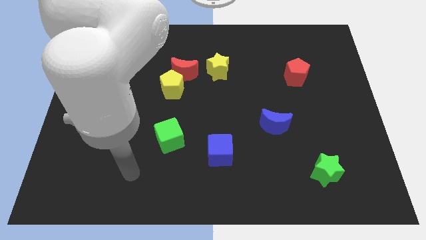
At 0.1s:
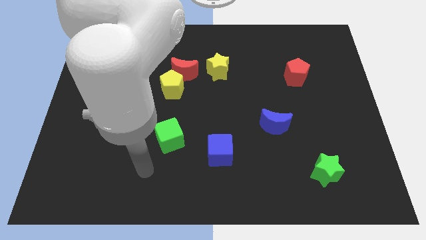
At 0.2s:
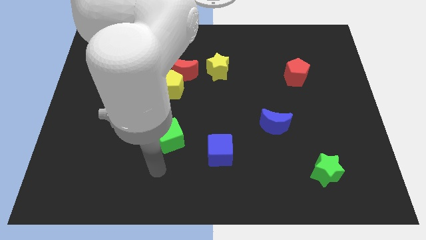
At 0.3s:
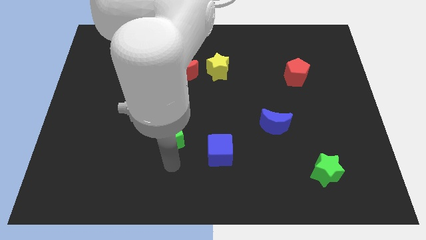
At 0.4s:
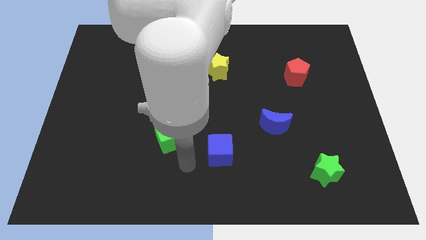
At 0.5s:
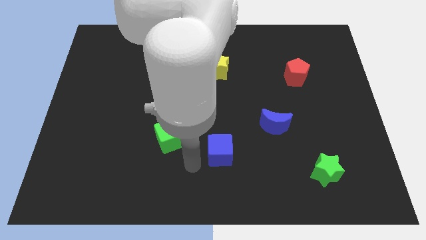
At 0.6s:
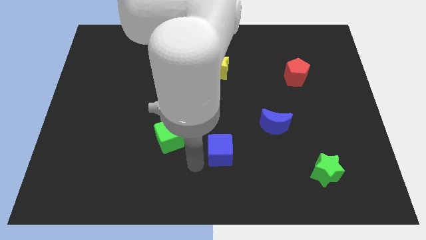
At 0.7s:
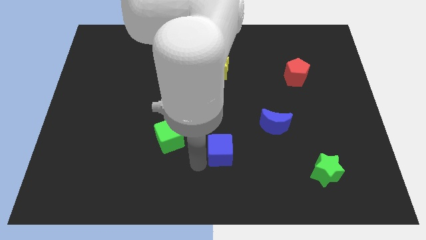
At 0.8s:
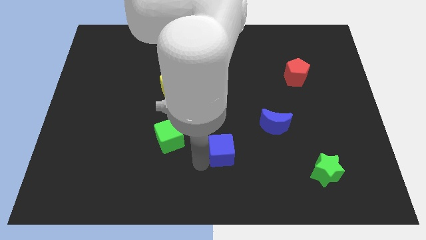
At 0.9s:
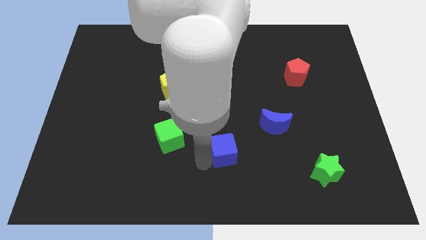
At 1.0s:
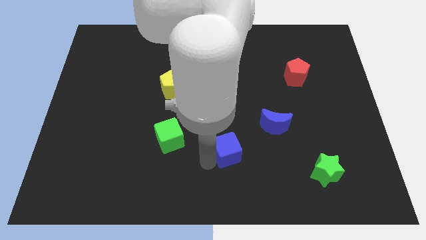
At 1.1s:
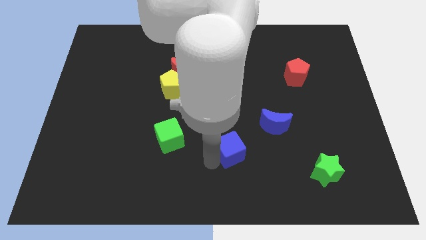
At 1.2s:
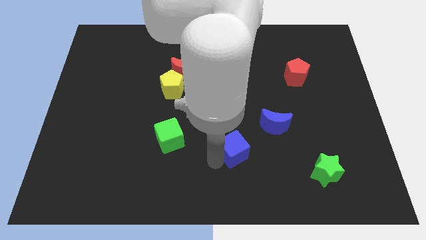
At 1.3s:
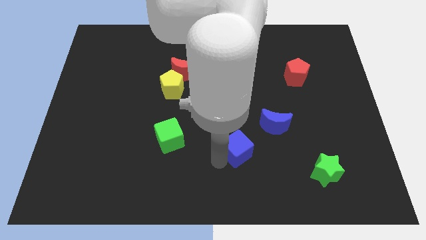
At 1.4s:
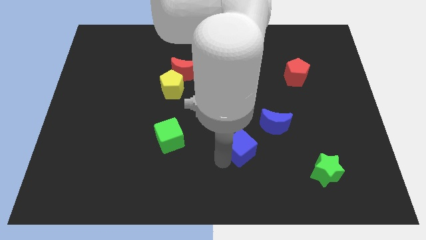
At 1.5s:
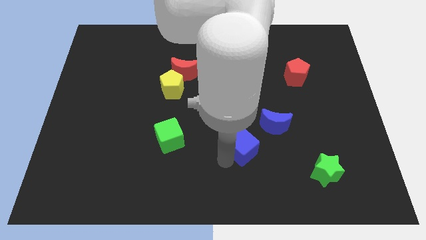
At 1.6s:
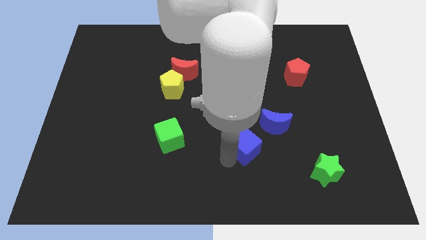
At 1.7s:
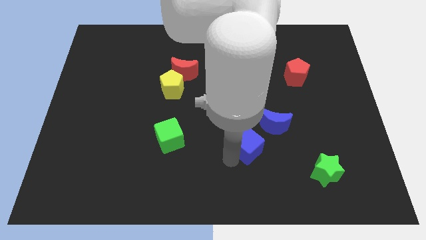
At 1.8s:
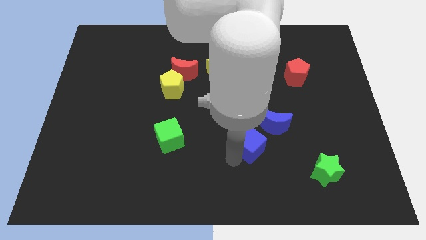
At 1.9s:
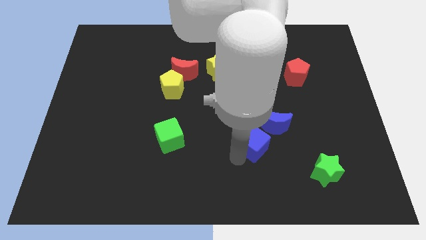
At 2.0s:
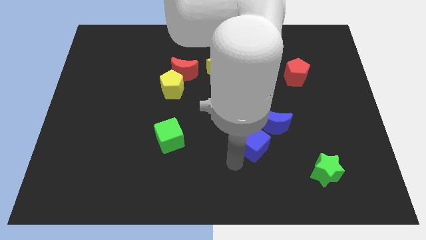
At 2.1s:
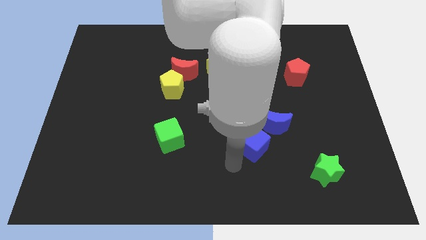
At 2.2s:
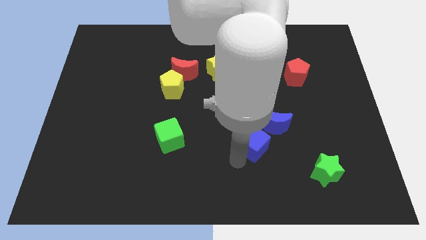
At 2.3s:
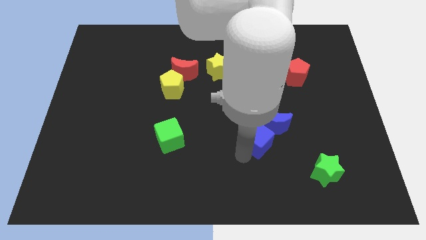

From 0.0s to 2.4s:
move the blue cube next to the blue moon

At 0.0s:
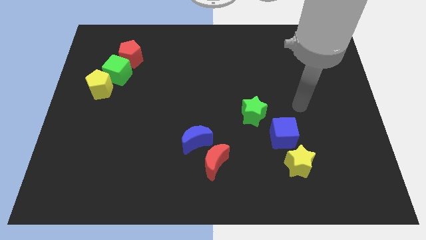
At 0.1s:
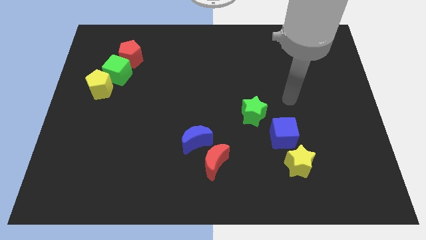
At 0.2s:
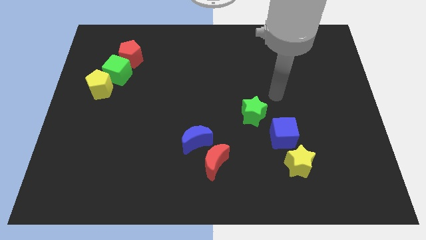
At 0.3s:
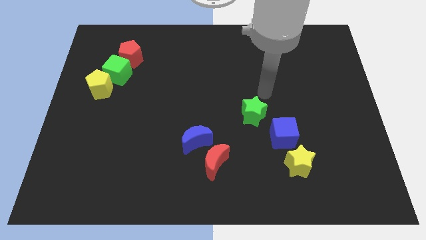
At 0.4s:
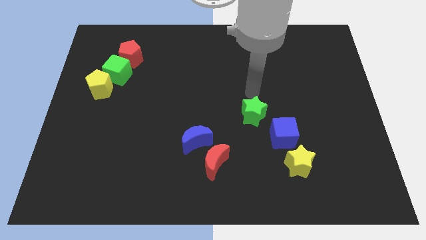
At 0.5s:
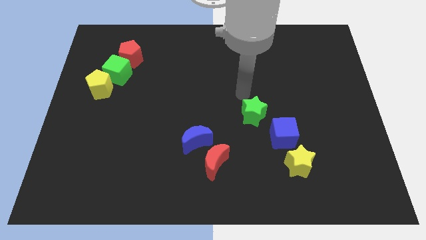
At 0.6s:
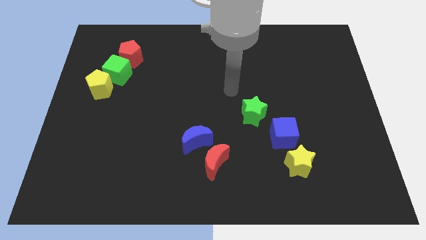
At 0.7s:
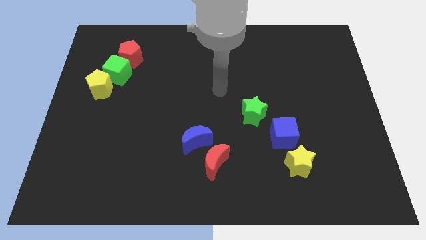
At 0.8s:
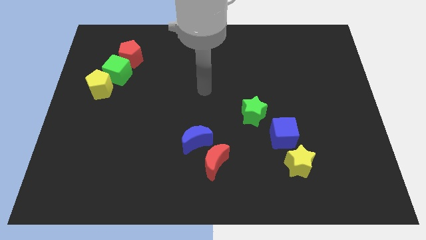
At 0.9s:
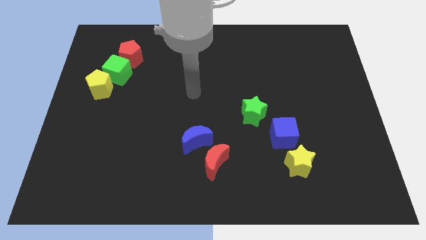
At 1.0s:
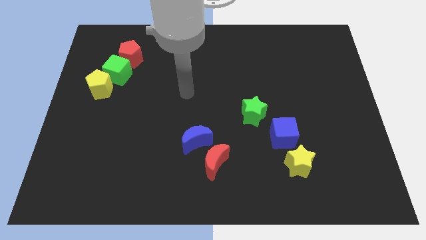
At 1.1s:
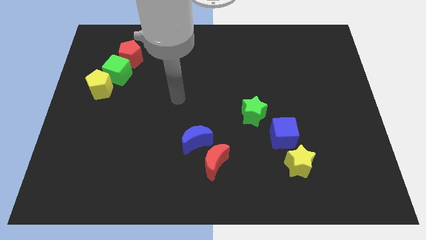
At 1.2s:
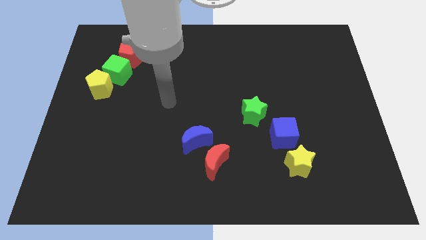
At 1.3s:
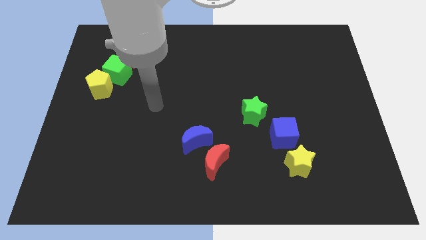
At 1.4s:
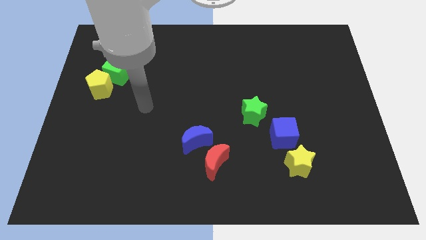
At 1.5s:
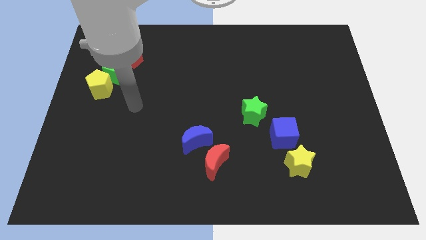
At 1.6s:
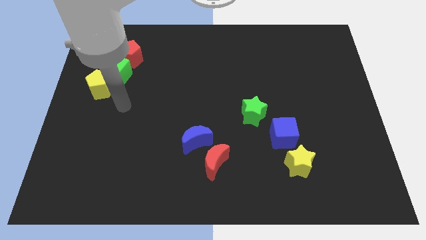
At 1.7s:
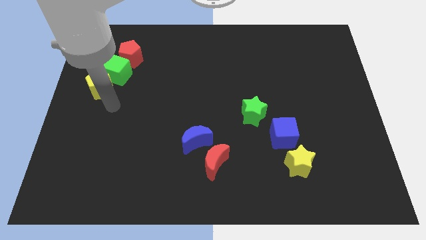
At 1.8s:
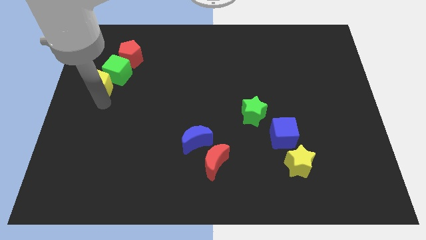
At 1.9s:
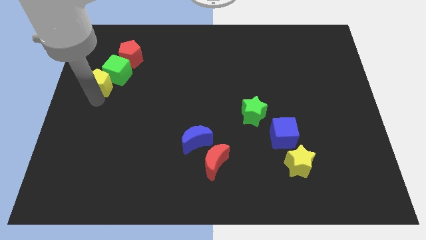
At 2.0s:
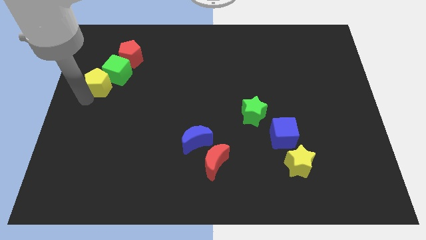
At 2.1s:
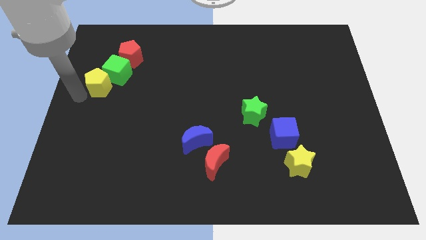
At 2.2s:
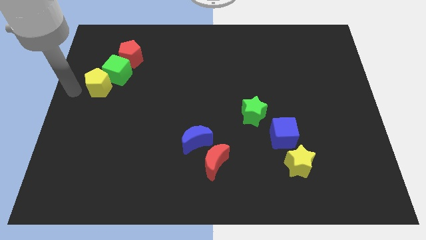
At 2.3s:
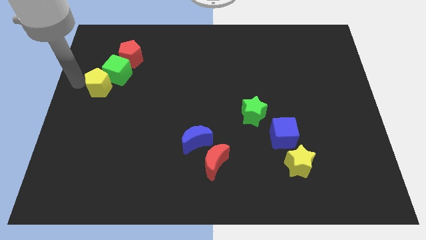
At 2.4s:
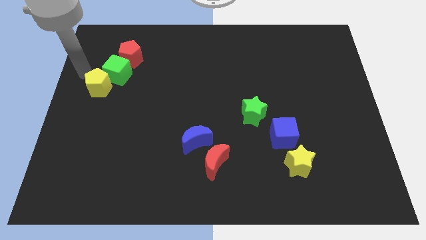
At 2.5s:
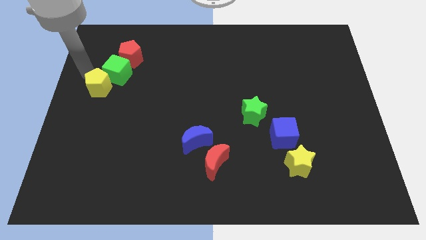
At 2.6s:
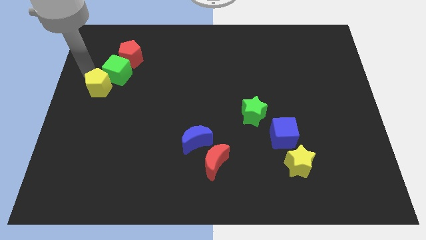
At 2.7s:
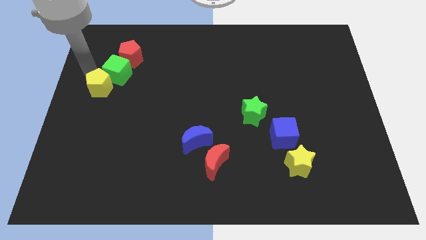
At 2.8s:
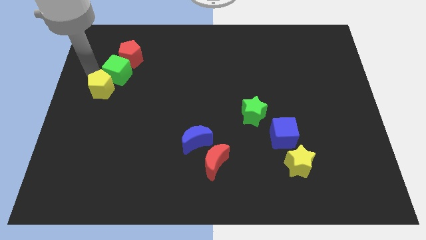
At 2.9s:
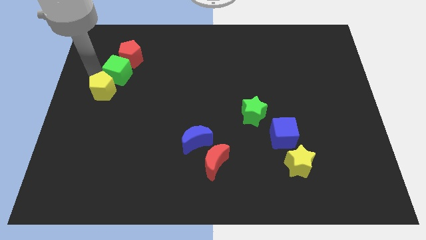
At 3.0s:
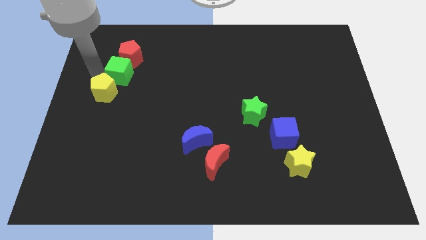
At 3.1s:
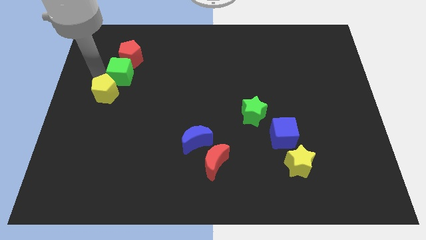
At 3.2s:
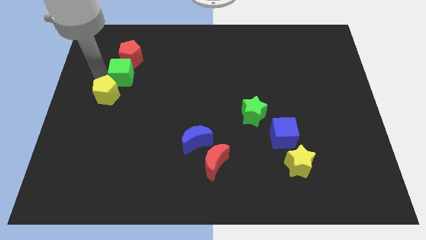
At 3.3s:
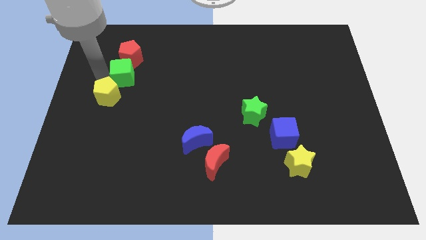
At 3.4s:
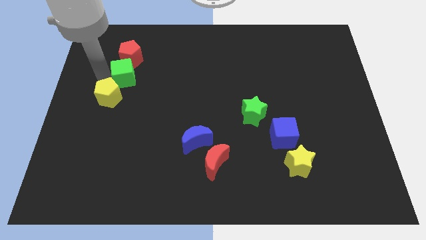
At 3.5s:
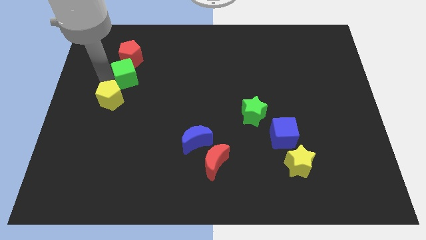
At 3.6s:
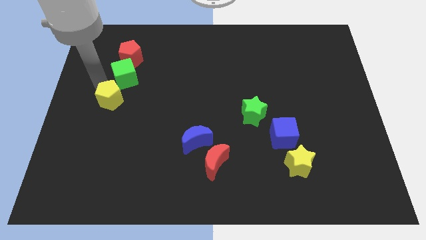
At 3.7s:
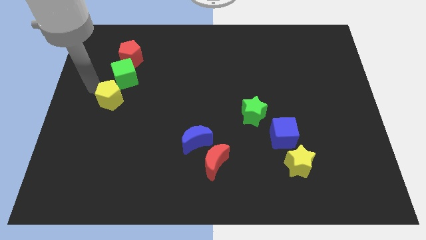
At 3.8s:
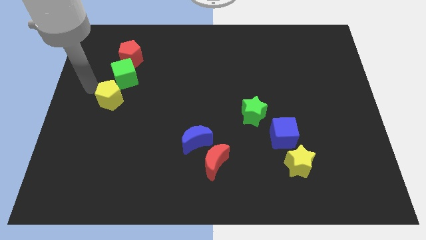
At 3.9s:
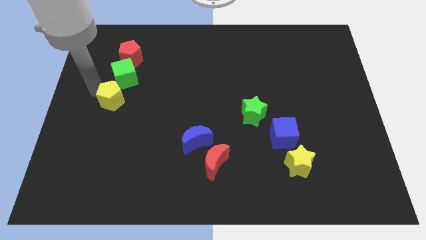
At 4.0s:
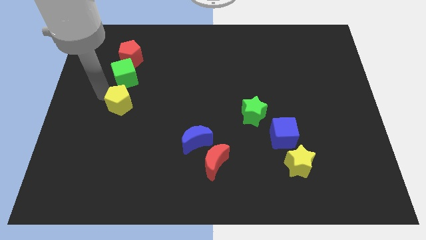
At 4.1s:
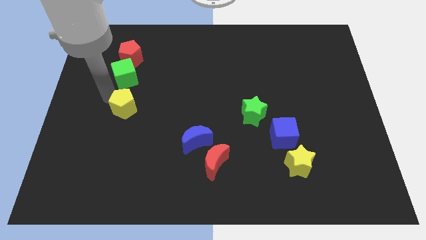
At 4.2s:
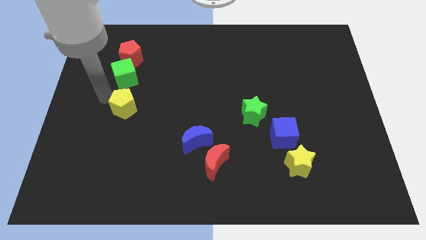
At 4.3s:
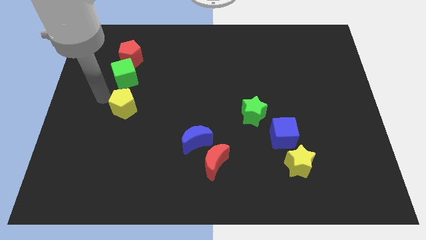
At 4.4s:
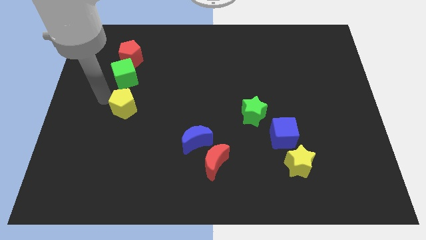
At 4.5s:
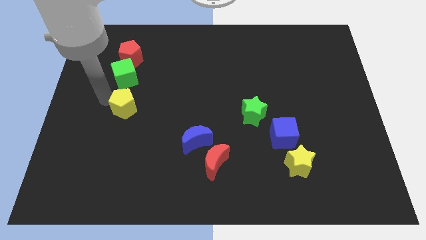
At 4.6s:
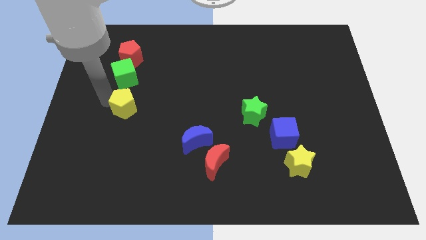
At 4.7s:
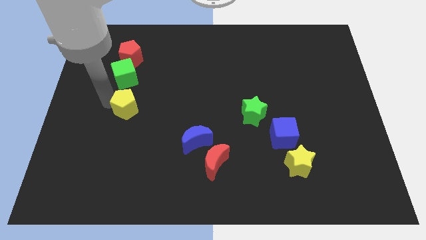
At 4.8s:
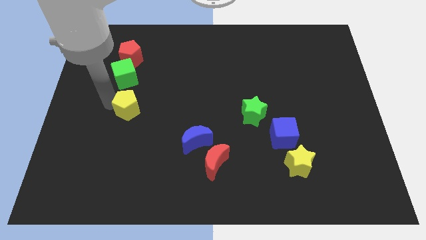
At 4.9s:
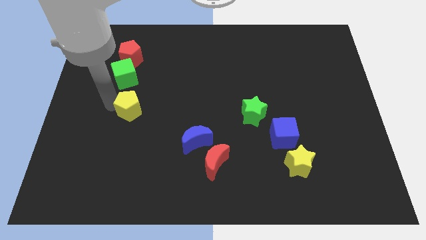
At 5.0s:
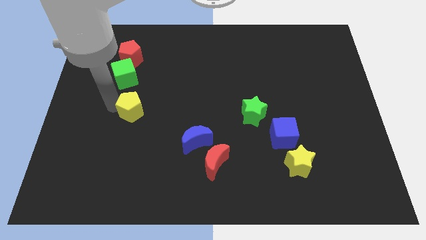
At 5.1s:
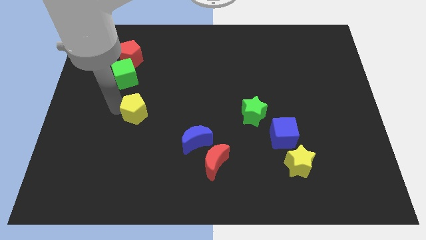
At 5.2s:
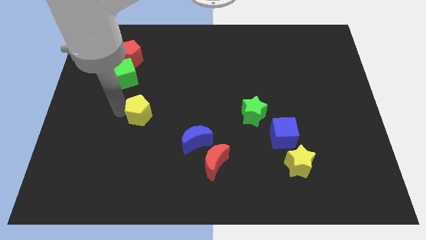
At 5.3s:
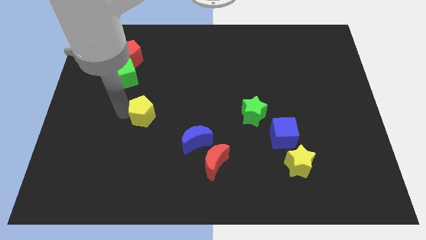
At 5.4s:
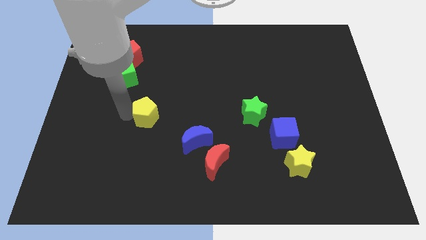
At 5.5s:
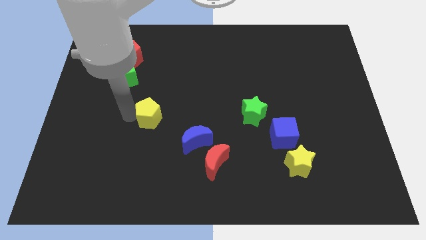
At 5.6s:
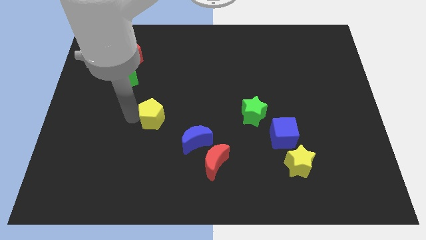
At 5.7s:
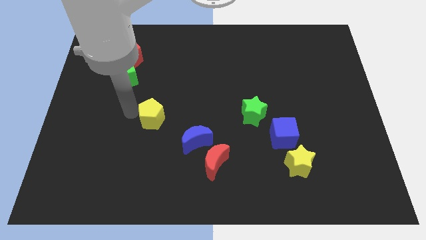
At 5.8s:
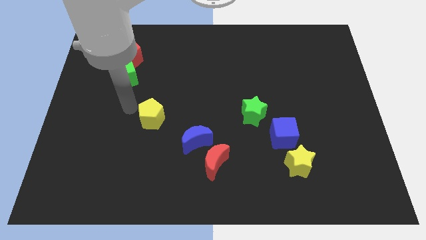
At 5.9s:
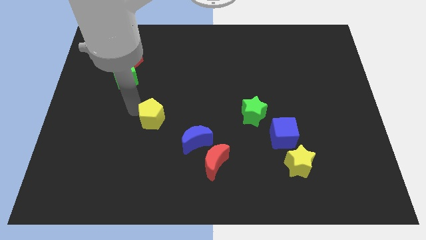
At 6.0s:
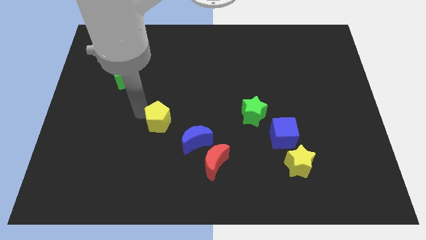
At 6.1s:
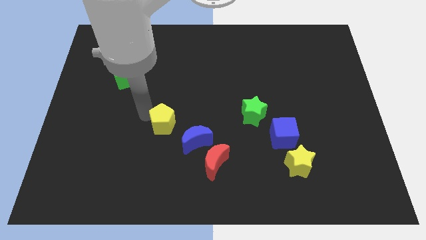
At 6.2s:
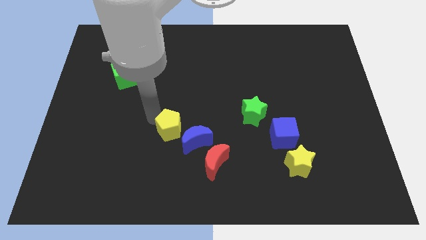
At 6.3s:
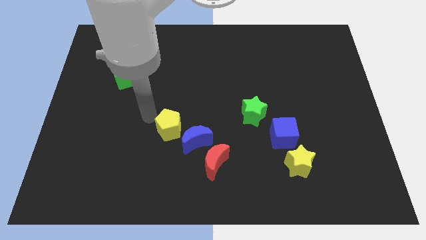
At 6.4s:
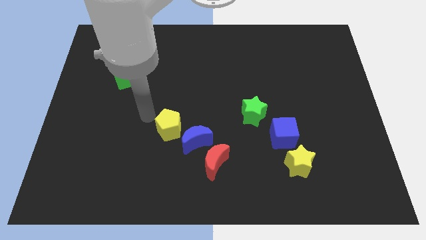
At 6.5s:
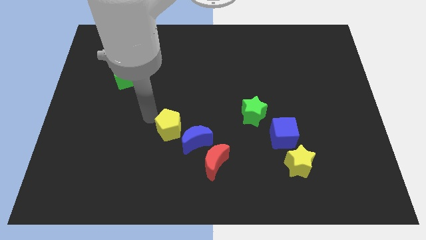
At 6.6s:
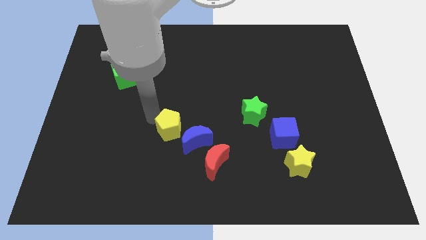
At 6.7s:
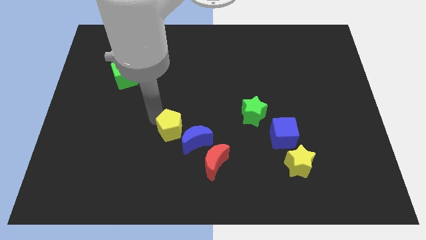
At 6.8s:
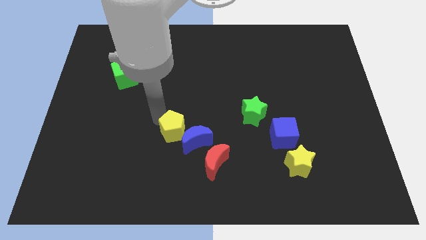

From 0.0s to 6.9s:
move the yellow pentagon next to the blue moon
